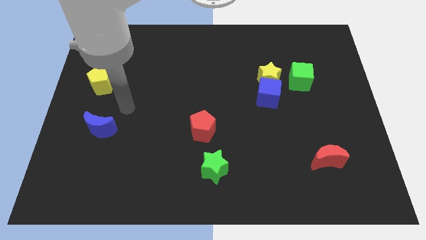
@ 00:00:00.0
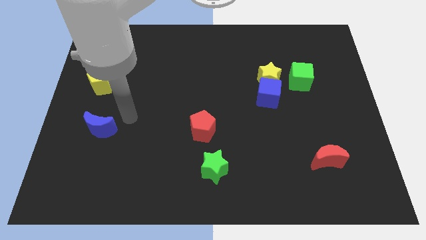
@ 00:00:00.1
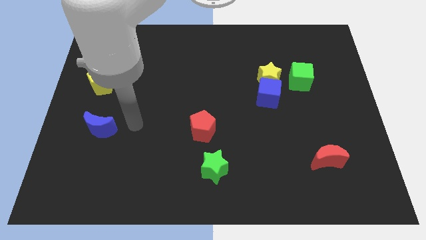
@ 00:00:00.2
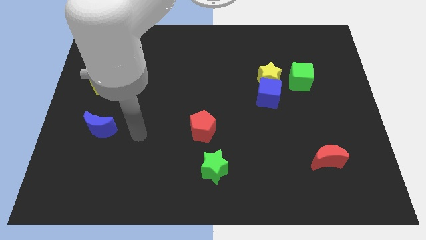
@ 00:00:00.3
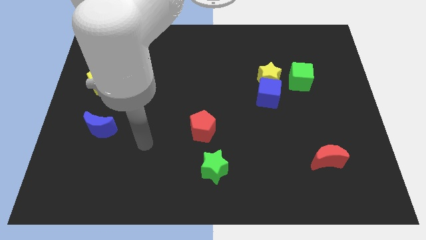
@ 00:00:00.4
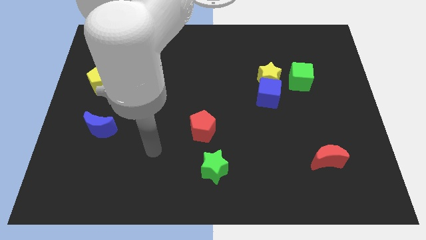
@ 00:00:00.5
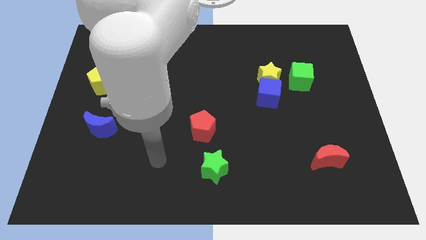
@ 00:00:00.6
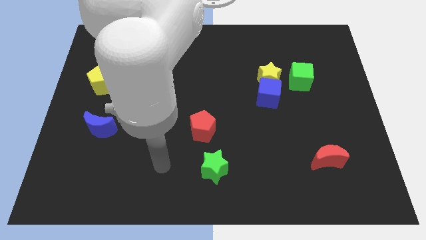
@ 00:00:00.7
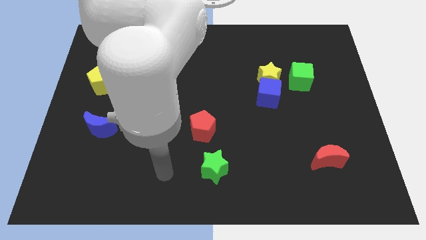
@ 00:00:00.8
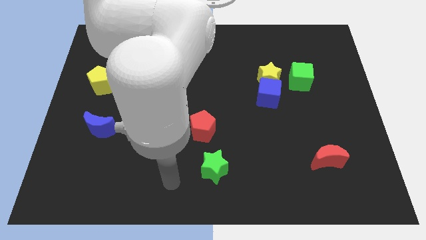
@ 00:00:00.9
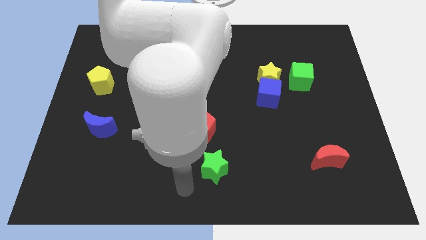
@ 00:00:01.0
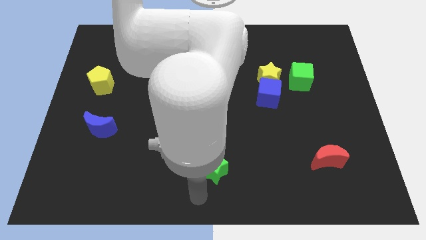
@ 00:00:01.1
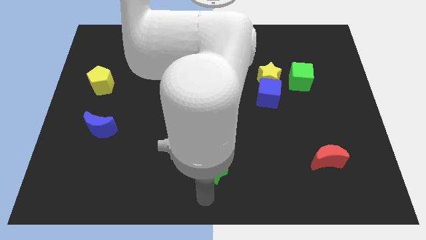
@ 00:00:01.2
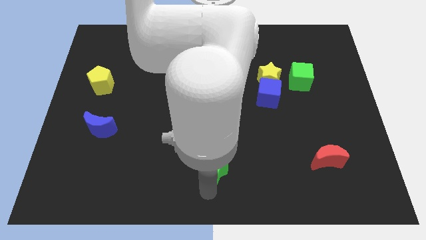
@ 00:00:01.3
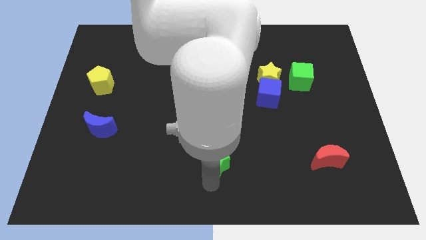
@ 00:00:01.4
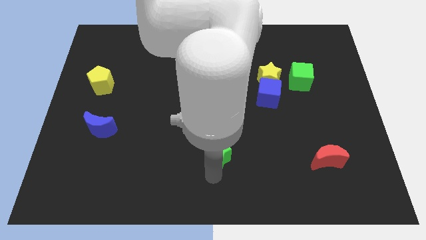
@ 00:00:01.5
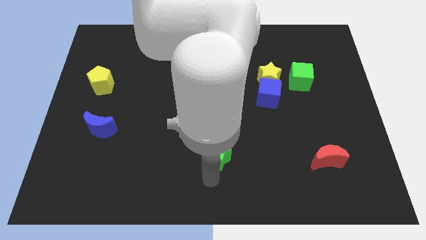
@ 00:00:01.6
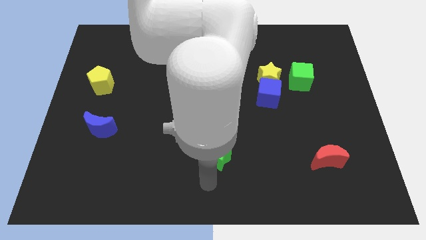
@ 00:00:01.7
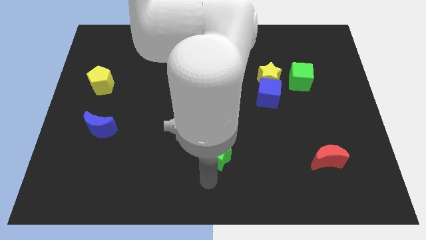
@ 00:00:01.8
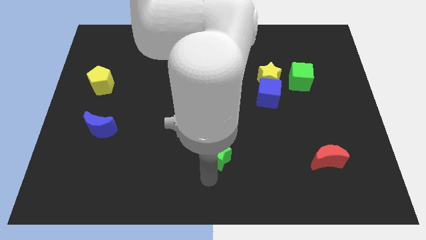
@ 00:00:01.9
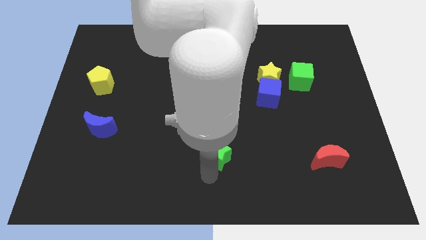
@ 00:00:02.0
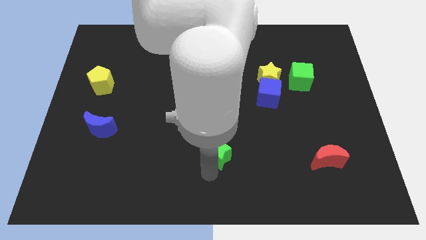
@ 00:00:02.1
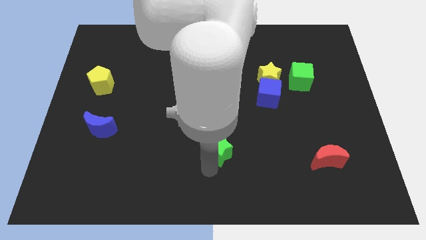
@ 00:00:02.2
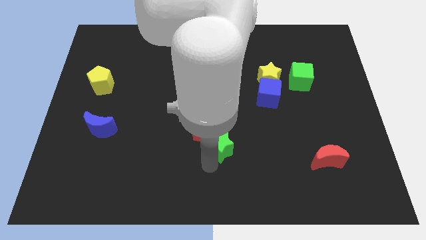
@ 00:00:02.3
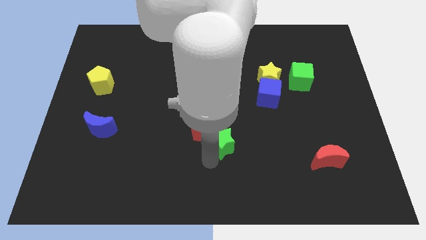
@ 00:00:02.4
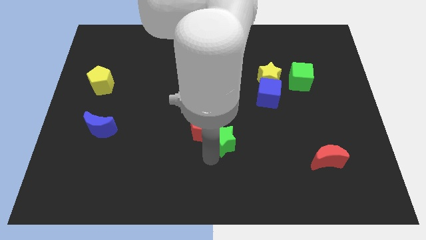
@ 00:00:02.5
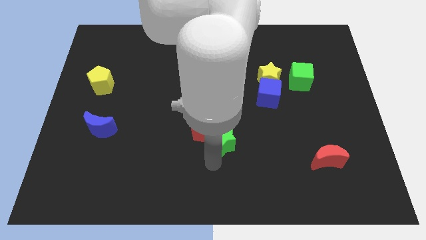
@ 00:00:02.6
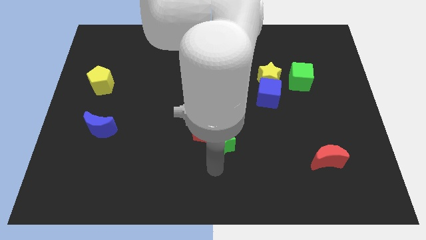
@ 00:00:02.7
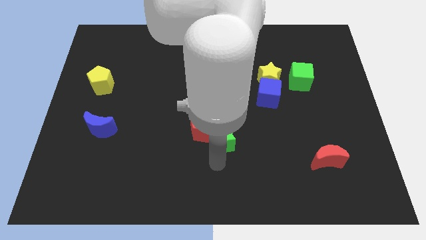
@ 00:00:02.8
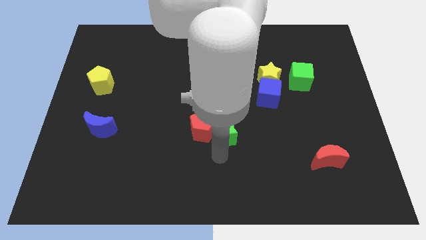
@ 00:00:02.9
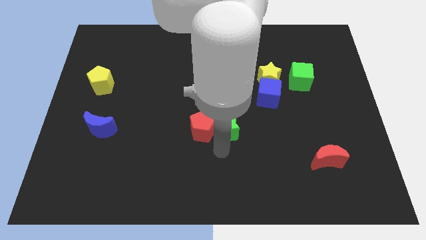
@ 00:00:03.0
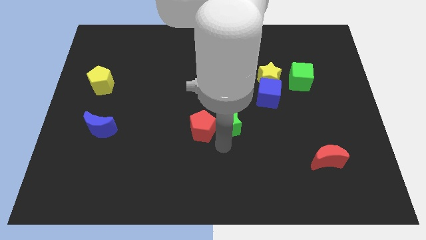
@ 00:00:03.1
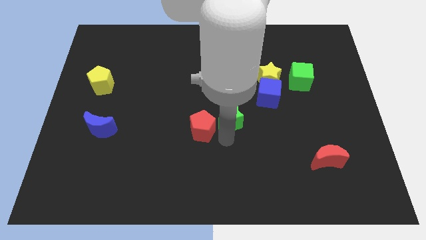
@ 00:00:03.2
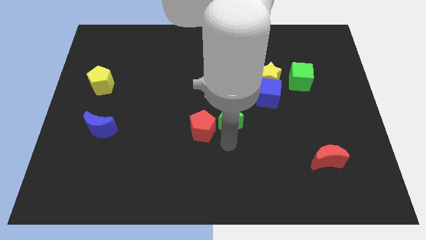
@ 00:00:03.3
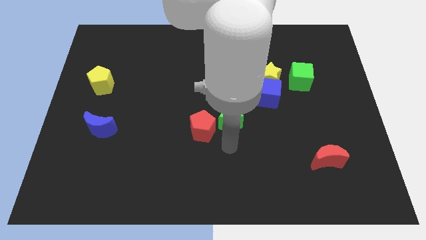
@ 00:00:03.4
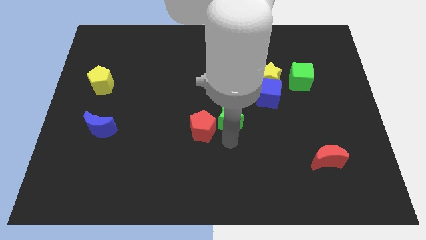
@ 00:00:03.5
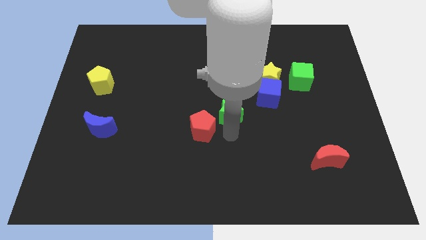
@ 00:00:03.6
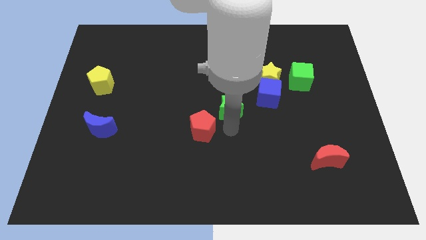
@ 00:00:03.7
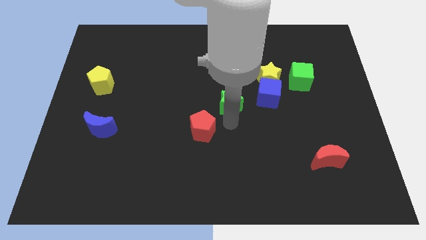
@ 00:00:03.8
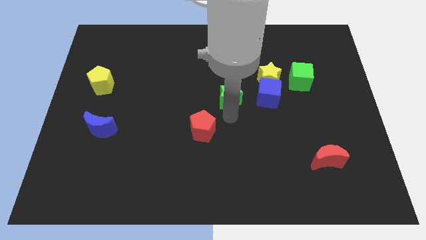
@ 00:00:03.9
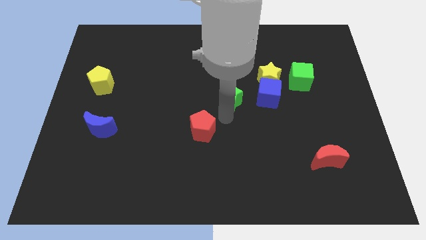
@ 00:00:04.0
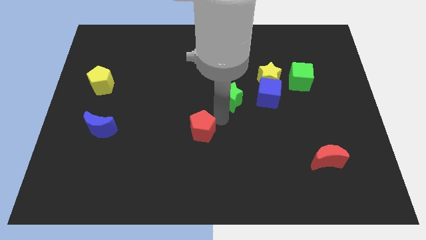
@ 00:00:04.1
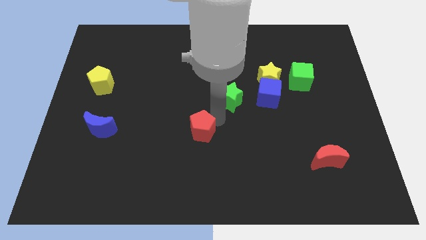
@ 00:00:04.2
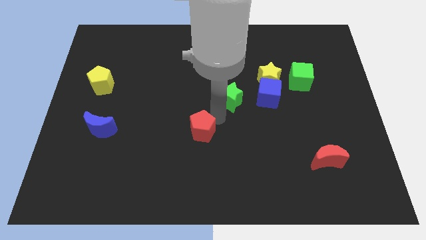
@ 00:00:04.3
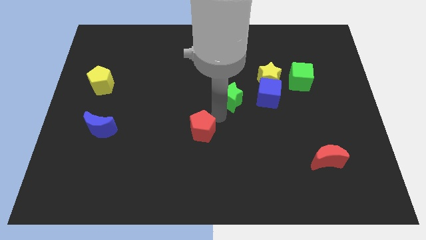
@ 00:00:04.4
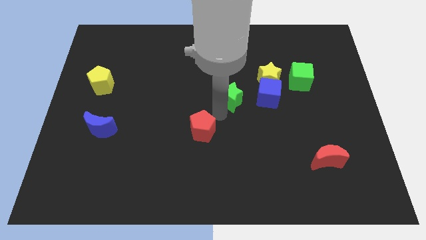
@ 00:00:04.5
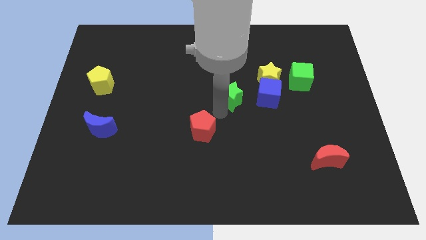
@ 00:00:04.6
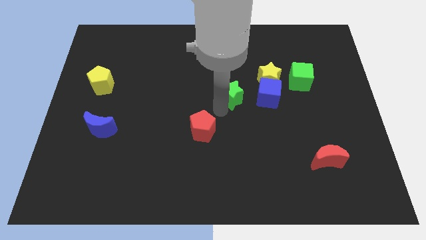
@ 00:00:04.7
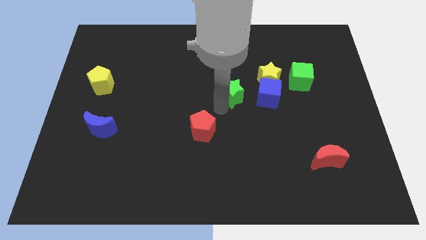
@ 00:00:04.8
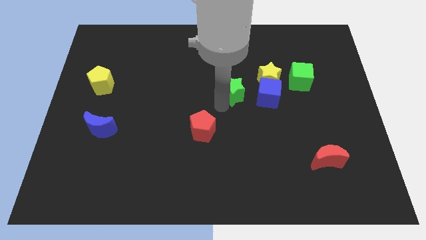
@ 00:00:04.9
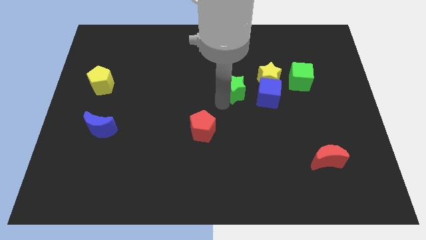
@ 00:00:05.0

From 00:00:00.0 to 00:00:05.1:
put the green star diagonally up and to the left of the blue cube

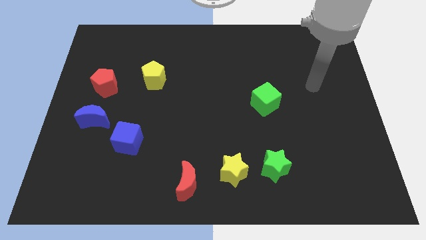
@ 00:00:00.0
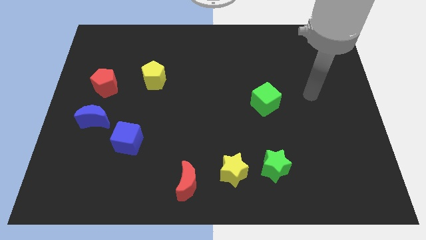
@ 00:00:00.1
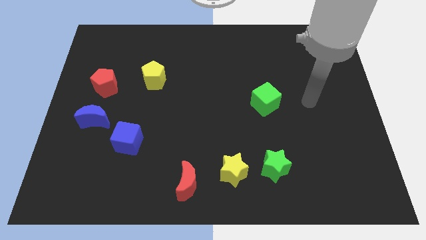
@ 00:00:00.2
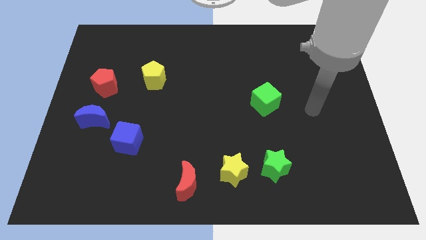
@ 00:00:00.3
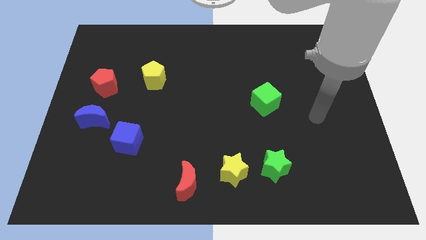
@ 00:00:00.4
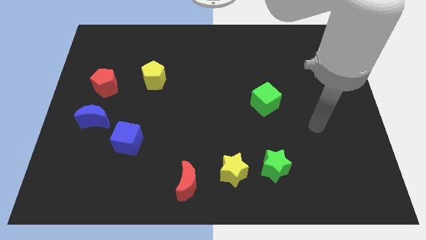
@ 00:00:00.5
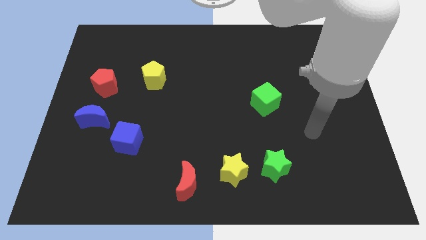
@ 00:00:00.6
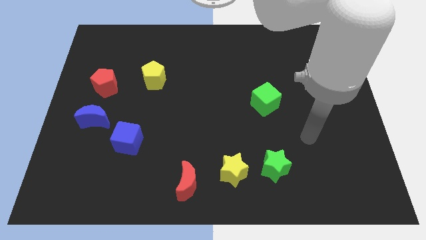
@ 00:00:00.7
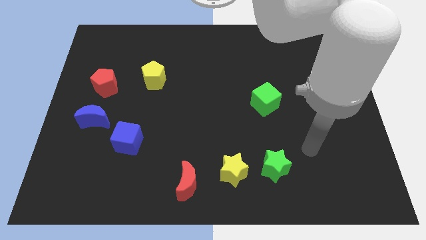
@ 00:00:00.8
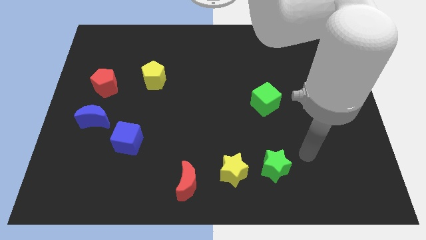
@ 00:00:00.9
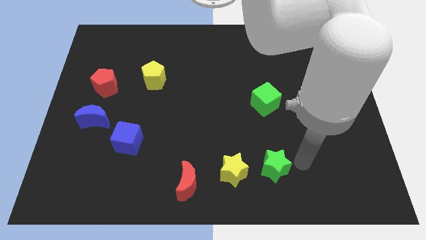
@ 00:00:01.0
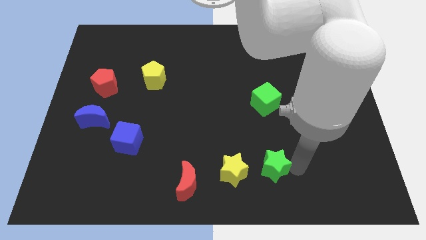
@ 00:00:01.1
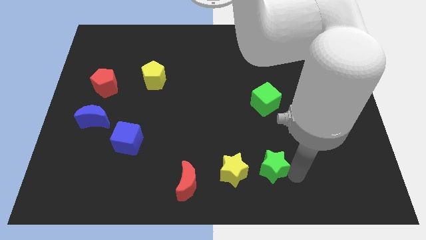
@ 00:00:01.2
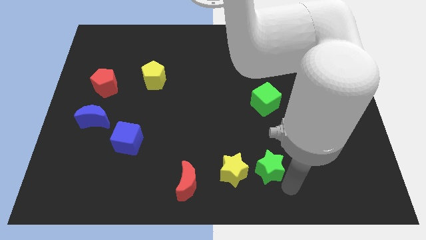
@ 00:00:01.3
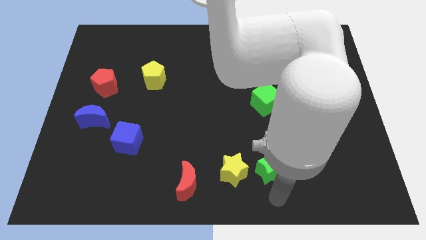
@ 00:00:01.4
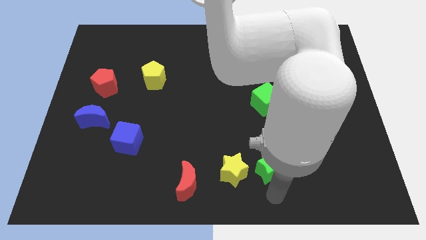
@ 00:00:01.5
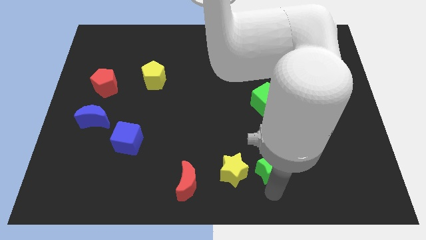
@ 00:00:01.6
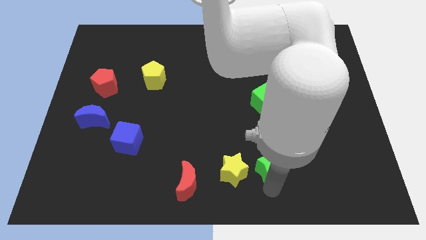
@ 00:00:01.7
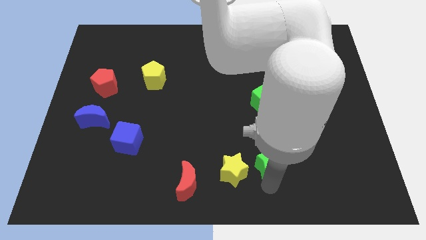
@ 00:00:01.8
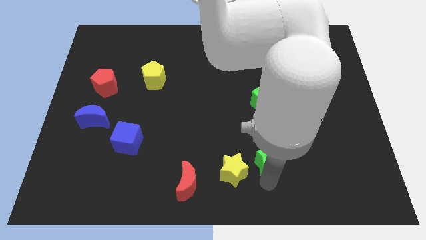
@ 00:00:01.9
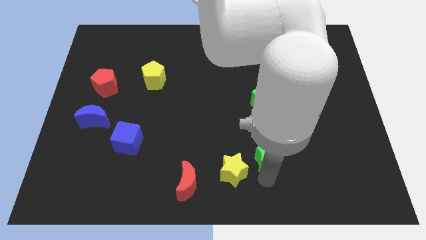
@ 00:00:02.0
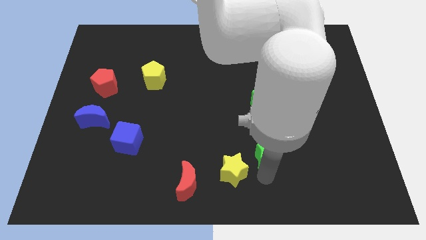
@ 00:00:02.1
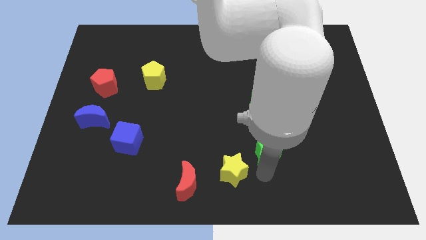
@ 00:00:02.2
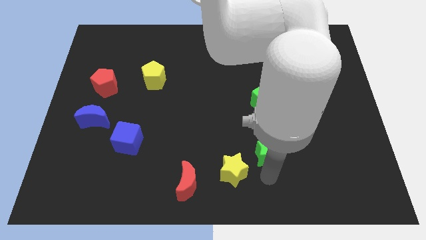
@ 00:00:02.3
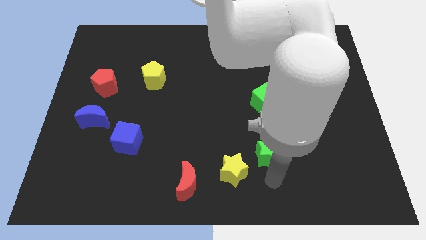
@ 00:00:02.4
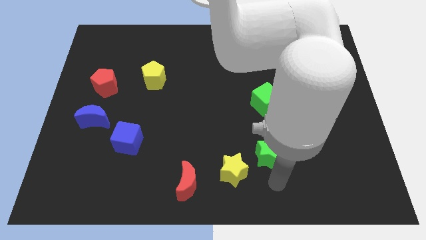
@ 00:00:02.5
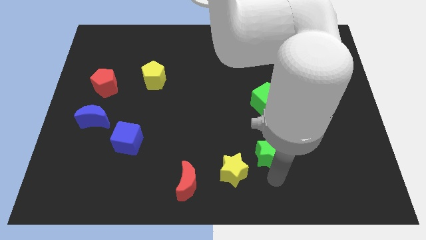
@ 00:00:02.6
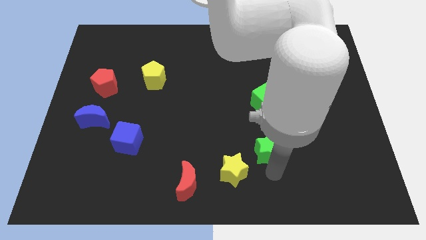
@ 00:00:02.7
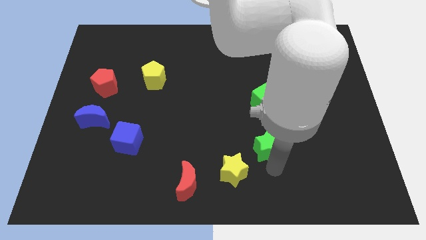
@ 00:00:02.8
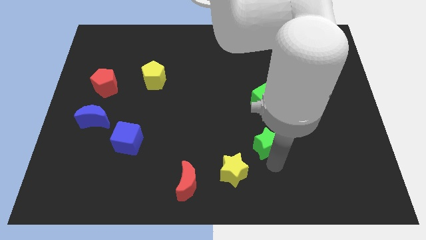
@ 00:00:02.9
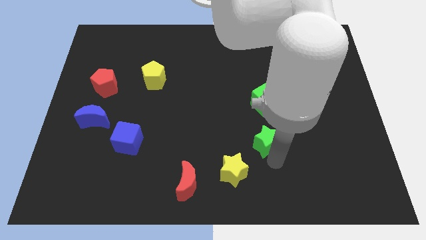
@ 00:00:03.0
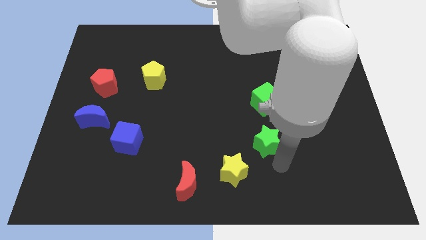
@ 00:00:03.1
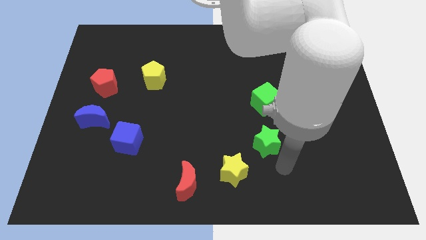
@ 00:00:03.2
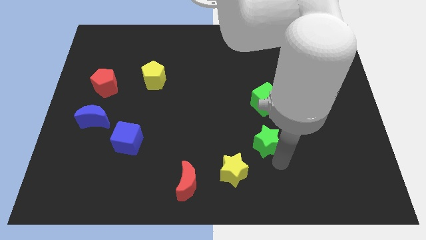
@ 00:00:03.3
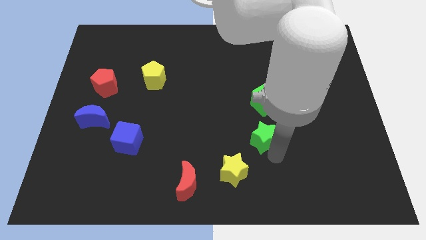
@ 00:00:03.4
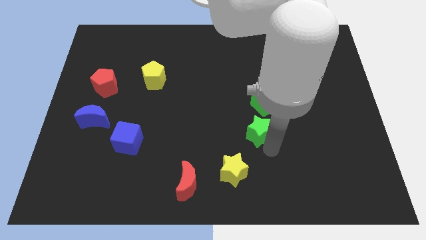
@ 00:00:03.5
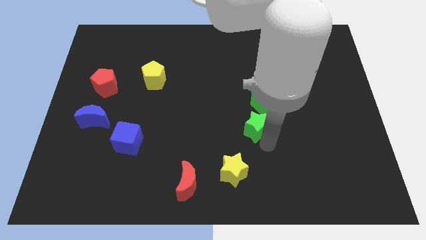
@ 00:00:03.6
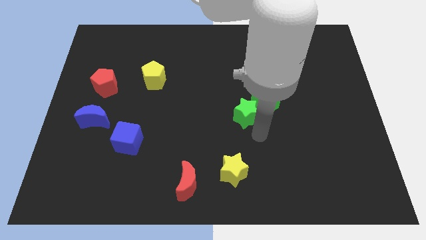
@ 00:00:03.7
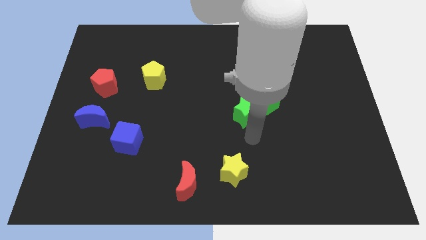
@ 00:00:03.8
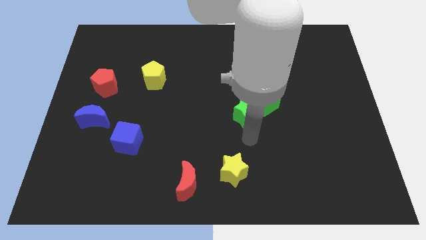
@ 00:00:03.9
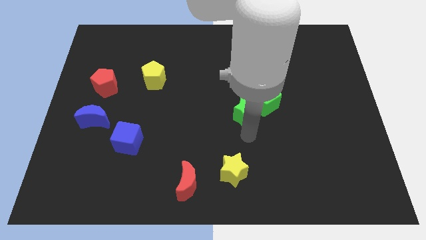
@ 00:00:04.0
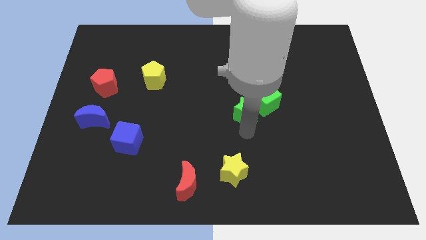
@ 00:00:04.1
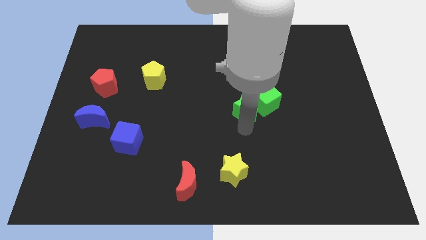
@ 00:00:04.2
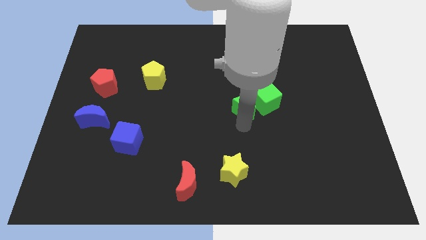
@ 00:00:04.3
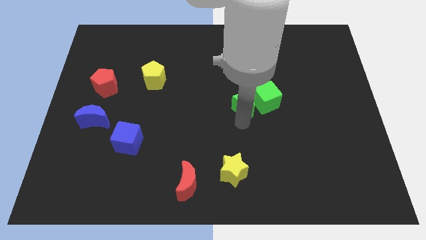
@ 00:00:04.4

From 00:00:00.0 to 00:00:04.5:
push the green star to the top left of the green cube
